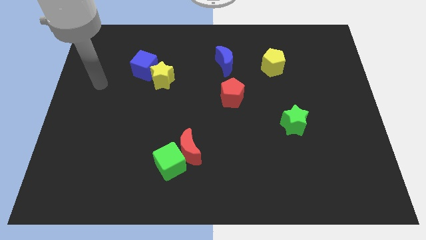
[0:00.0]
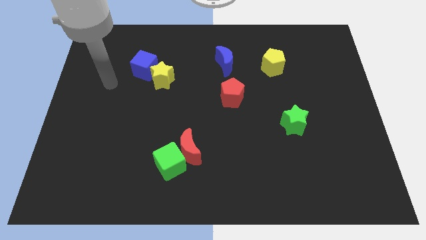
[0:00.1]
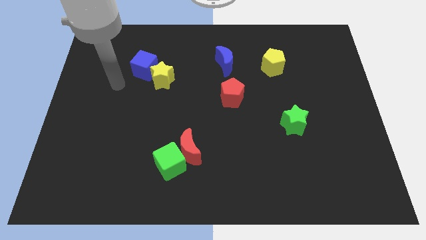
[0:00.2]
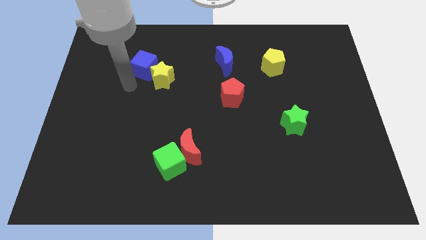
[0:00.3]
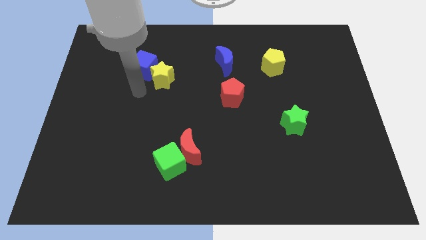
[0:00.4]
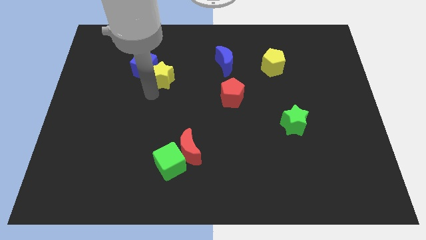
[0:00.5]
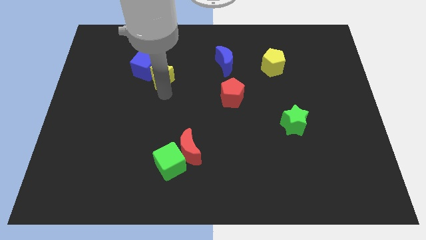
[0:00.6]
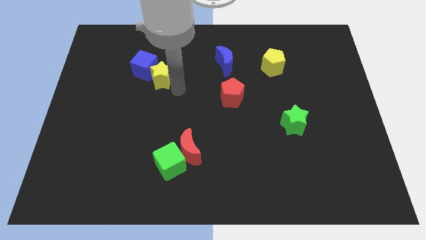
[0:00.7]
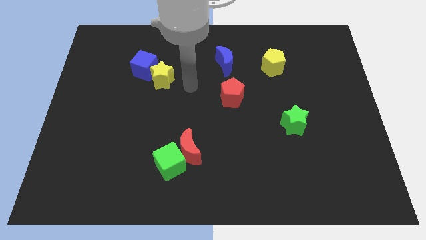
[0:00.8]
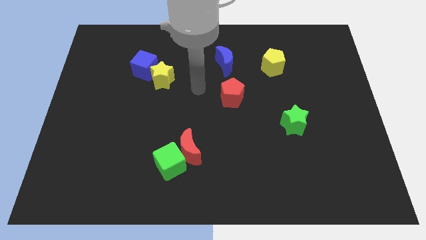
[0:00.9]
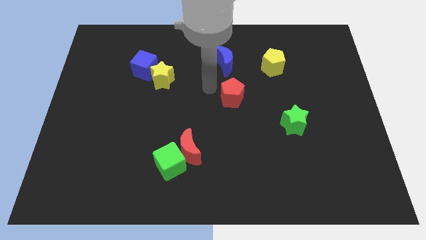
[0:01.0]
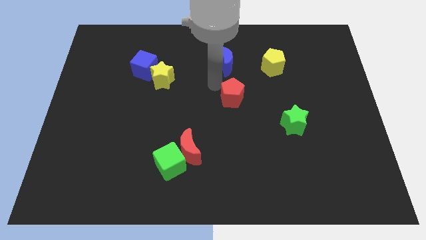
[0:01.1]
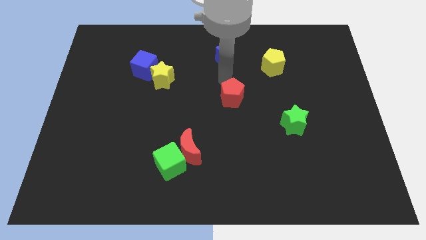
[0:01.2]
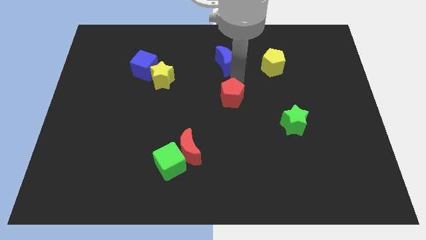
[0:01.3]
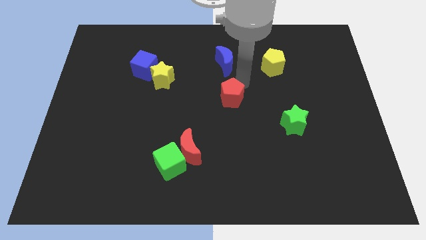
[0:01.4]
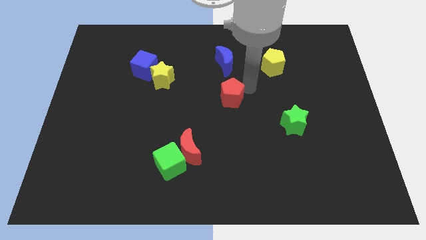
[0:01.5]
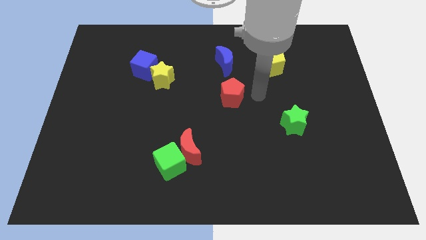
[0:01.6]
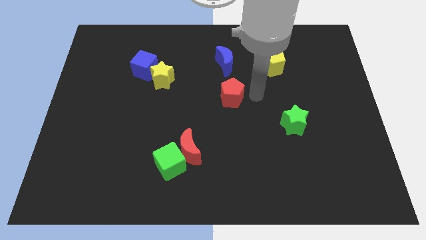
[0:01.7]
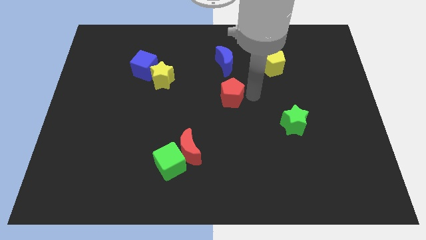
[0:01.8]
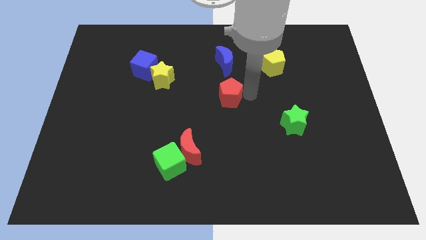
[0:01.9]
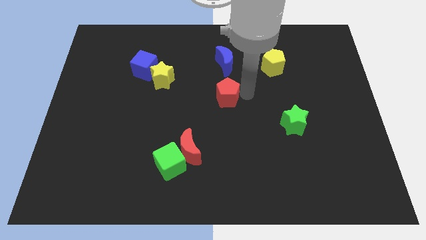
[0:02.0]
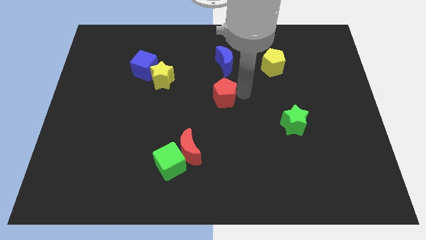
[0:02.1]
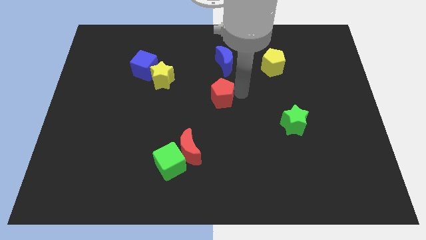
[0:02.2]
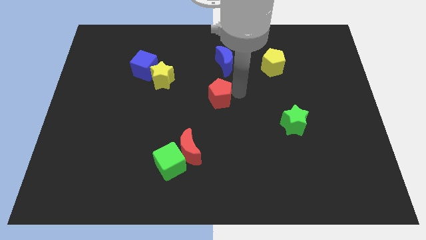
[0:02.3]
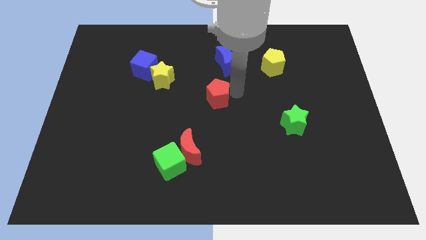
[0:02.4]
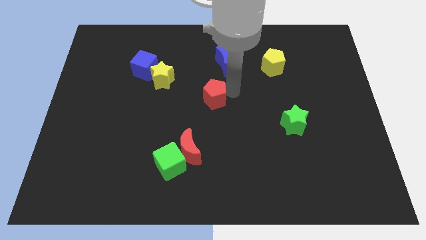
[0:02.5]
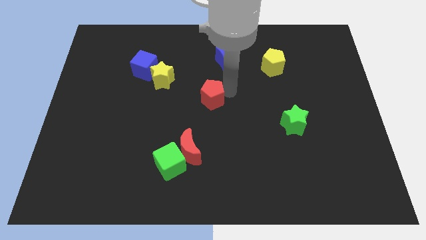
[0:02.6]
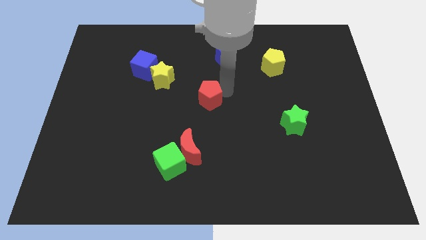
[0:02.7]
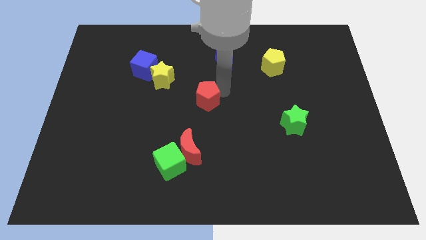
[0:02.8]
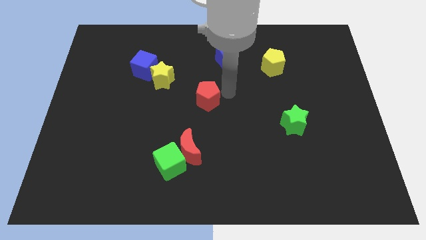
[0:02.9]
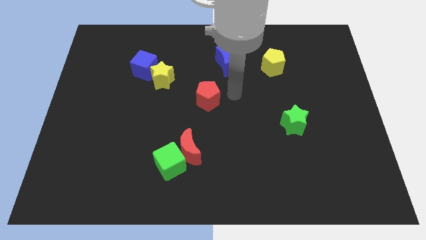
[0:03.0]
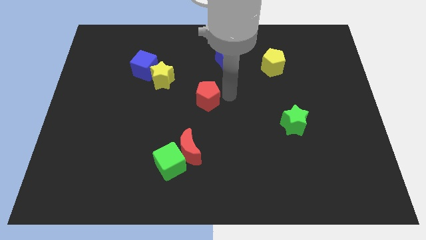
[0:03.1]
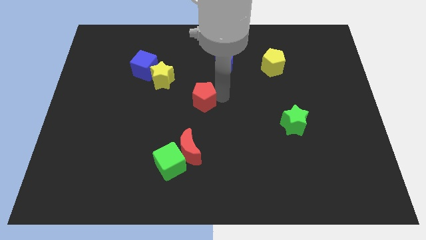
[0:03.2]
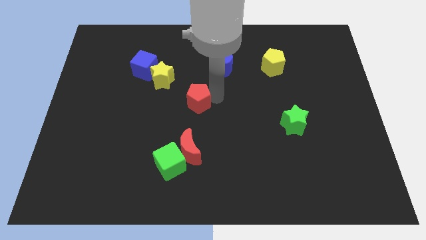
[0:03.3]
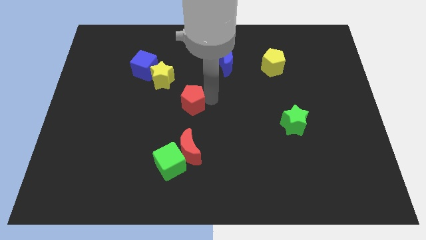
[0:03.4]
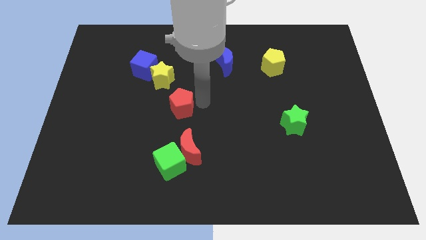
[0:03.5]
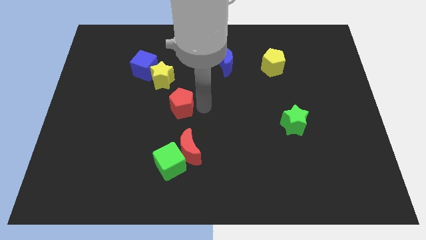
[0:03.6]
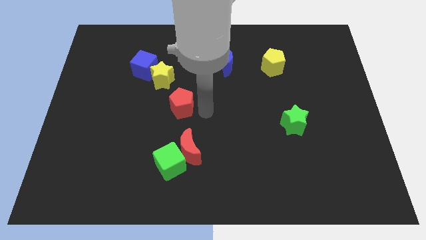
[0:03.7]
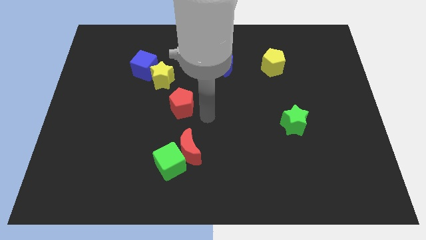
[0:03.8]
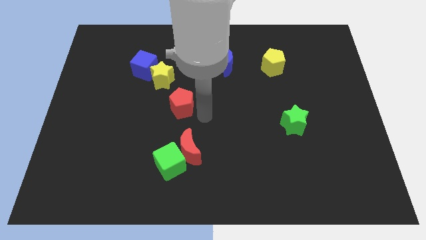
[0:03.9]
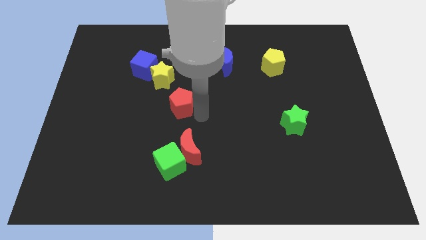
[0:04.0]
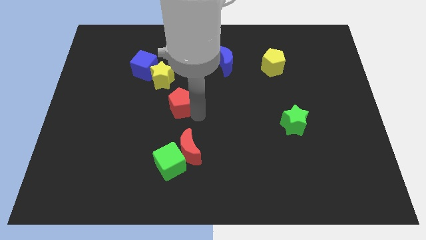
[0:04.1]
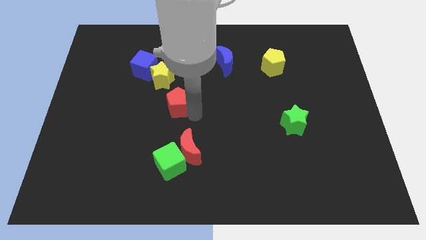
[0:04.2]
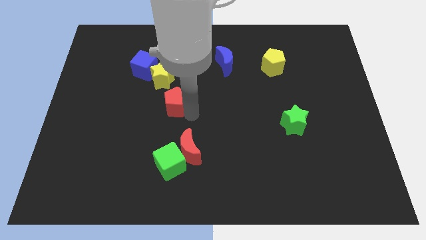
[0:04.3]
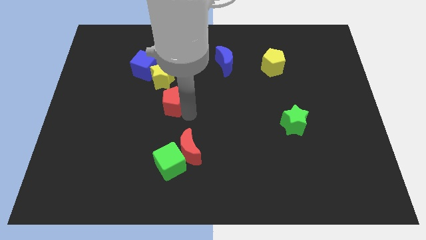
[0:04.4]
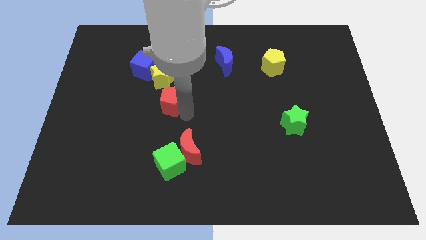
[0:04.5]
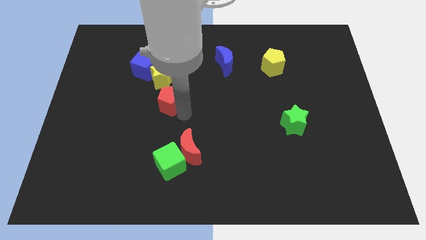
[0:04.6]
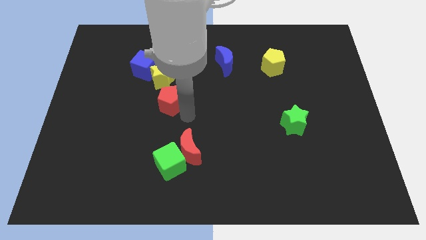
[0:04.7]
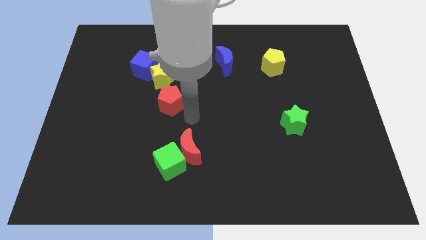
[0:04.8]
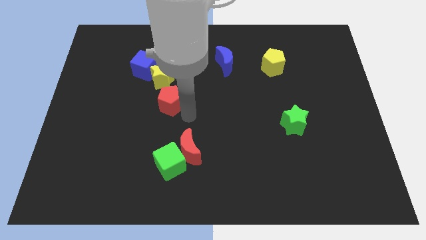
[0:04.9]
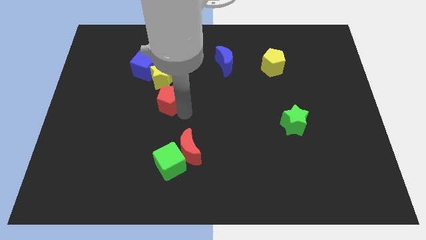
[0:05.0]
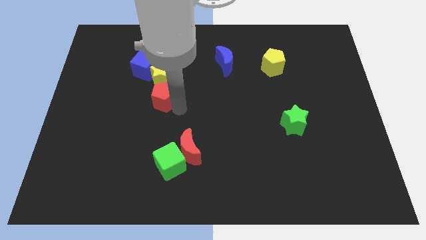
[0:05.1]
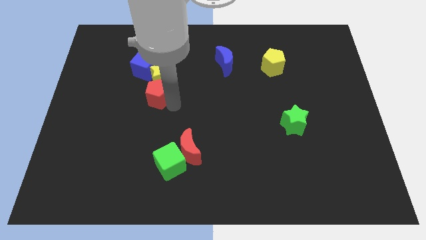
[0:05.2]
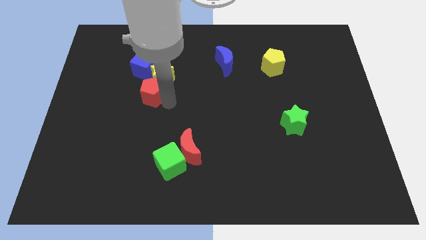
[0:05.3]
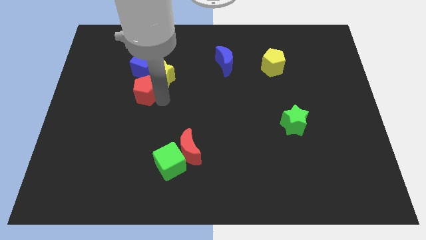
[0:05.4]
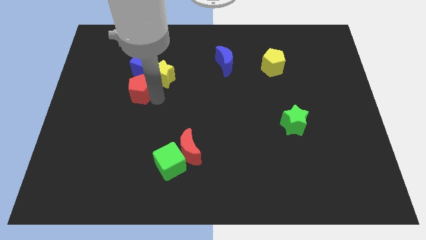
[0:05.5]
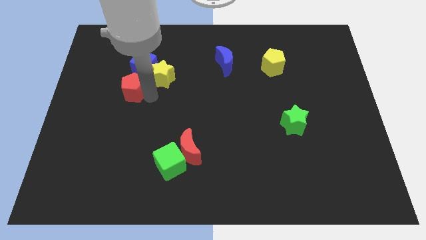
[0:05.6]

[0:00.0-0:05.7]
push the red pentagon diagonally down and to the left of the blue cube

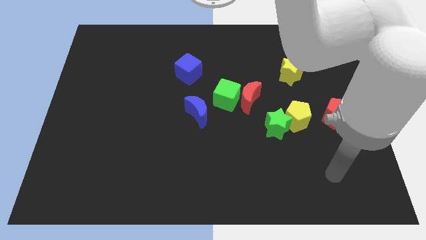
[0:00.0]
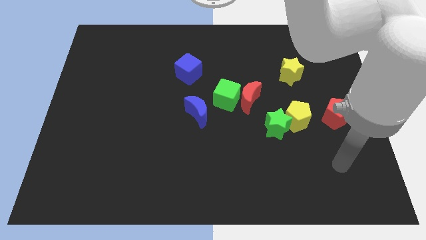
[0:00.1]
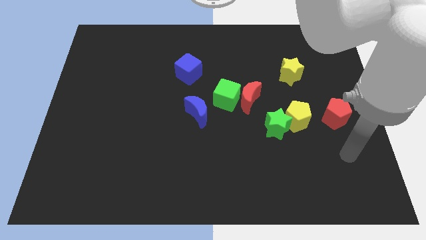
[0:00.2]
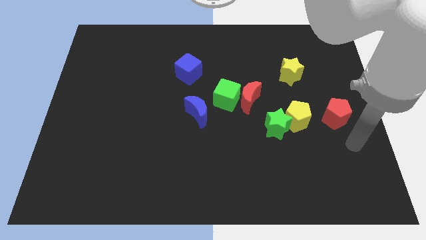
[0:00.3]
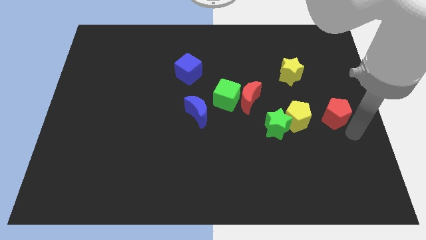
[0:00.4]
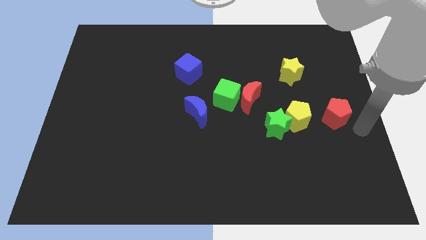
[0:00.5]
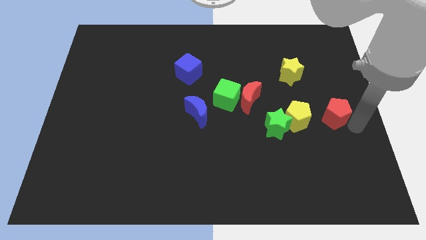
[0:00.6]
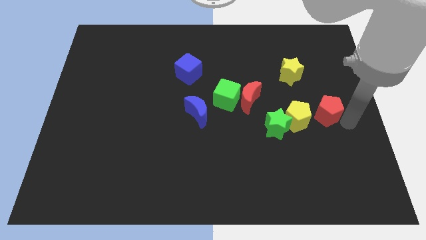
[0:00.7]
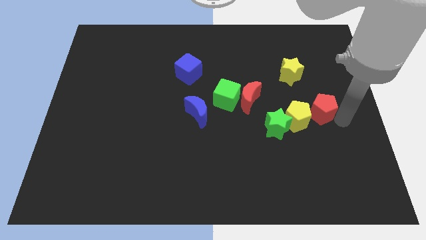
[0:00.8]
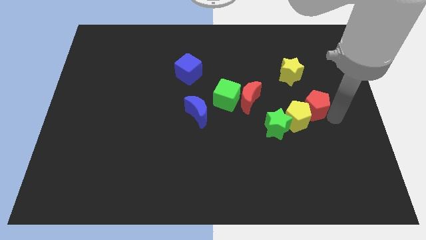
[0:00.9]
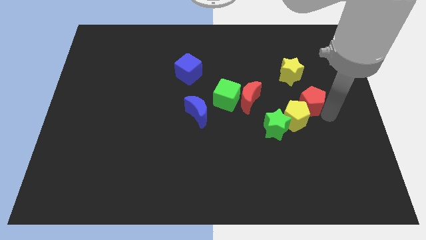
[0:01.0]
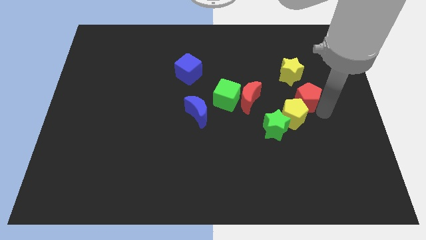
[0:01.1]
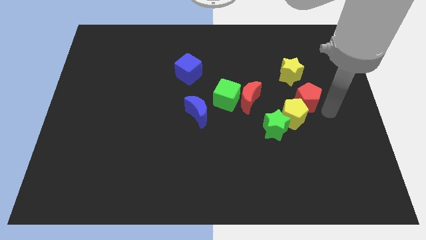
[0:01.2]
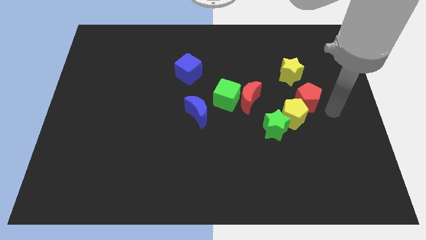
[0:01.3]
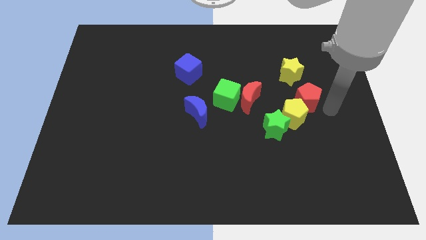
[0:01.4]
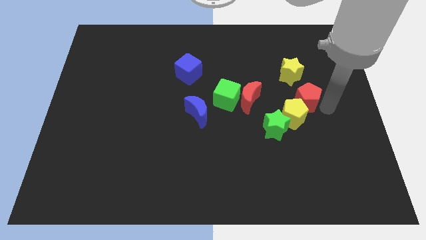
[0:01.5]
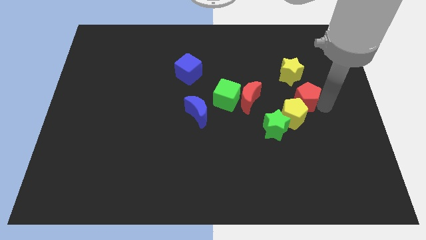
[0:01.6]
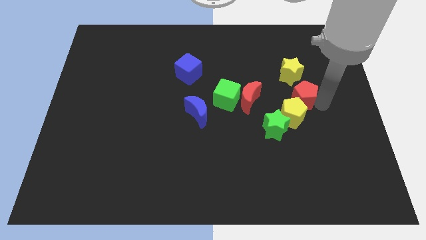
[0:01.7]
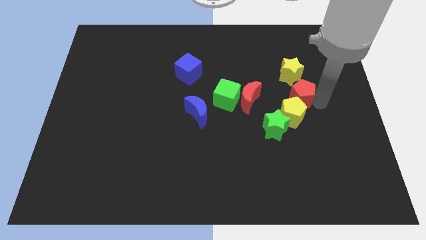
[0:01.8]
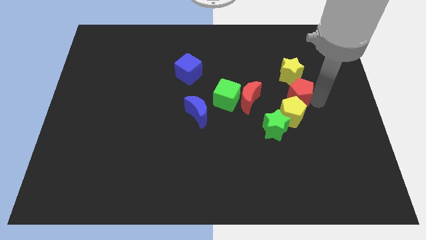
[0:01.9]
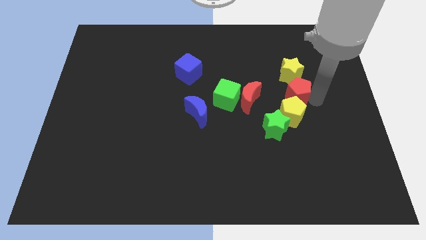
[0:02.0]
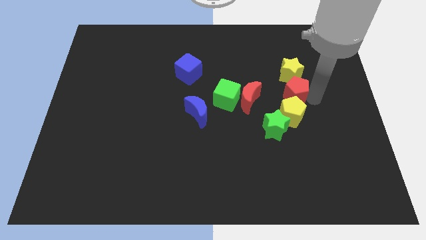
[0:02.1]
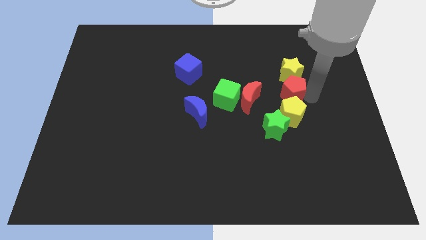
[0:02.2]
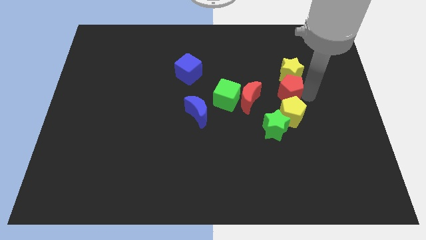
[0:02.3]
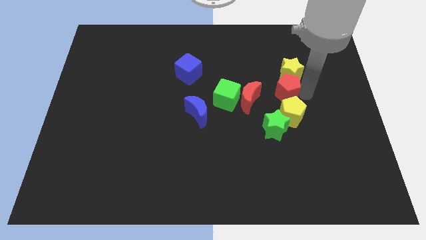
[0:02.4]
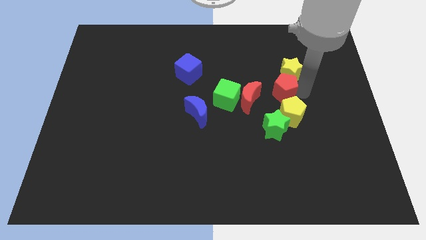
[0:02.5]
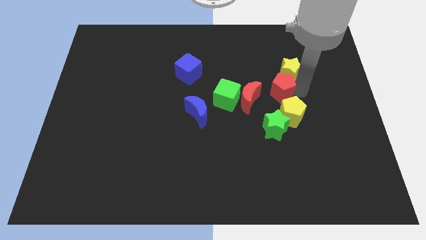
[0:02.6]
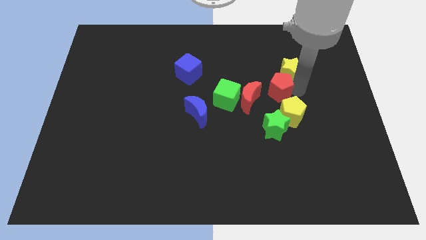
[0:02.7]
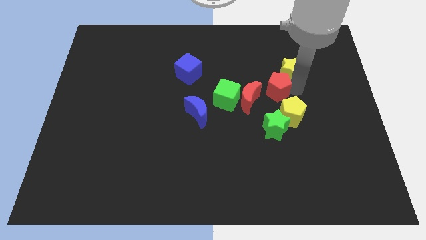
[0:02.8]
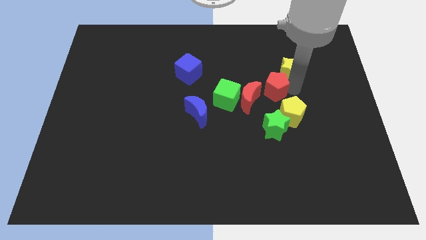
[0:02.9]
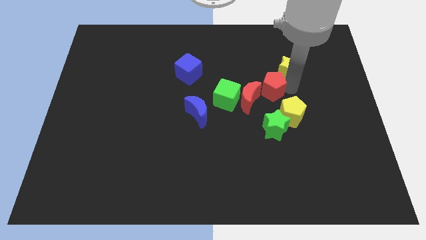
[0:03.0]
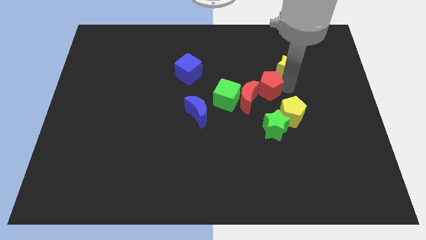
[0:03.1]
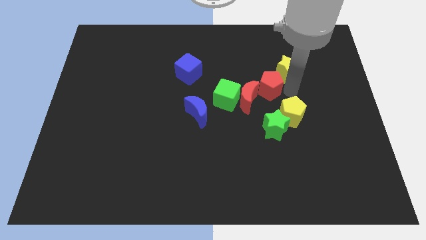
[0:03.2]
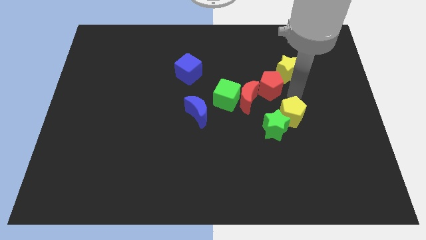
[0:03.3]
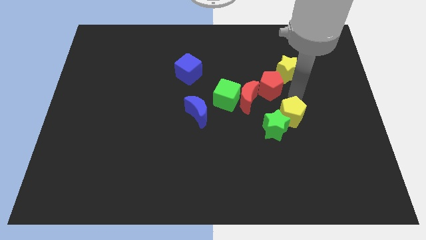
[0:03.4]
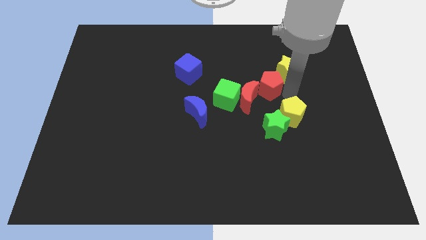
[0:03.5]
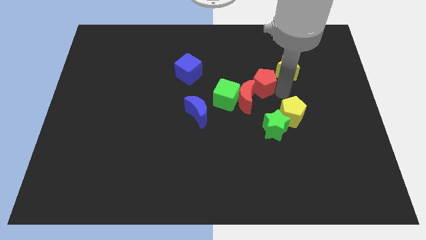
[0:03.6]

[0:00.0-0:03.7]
push the red pentagon to the top right of the green cube
